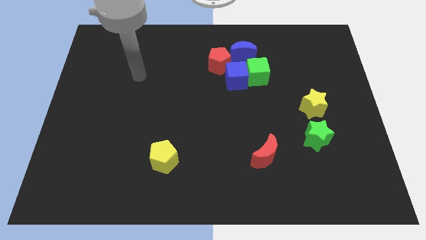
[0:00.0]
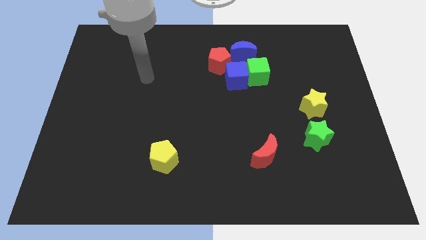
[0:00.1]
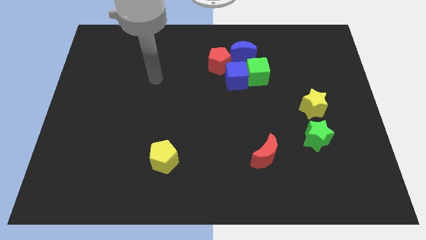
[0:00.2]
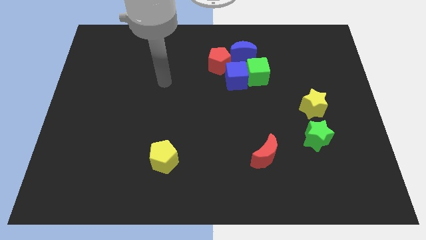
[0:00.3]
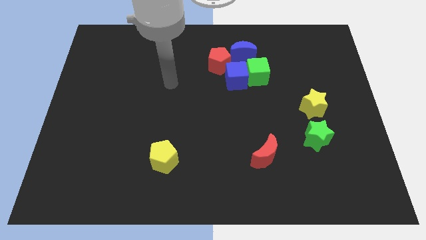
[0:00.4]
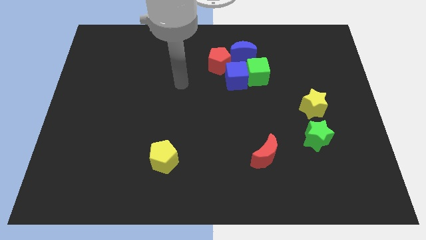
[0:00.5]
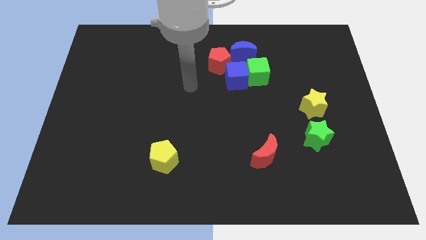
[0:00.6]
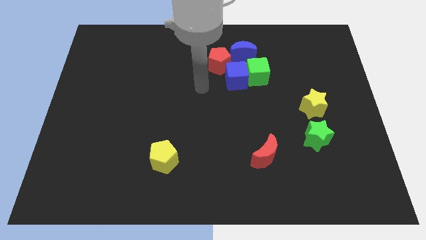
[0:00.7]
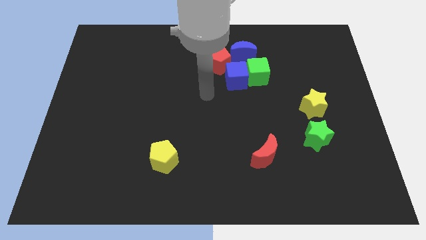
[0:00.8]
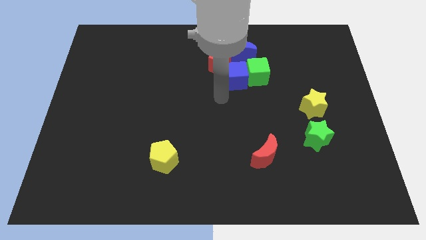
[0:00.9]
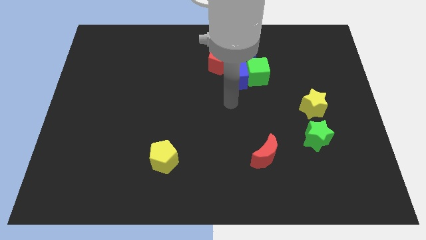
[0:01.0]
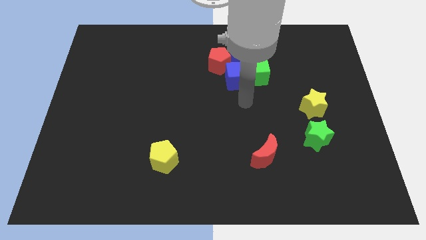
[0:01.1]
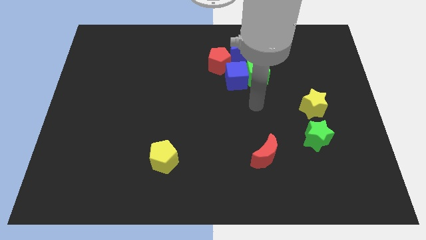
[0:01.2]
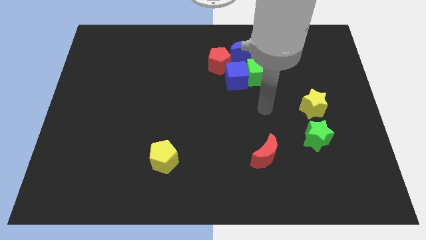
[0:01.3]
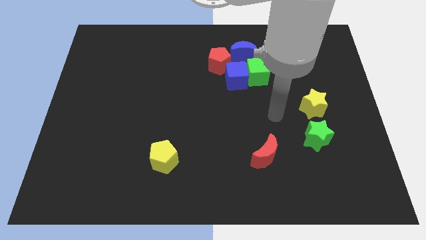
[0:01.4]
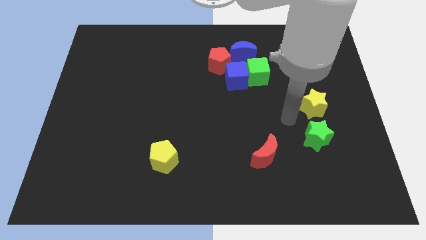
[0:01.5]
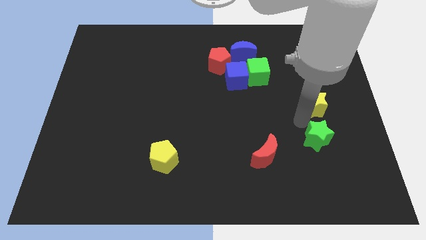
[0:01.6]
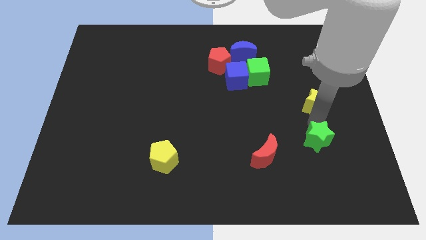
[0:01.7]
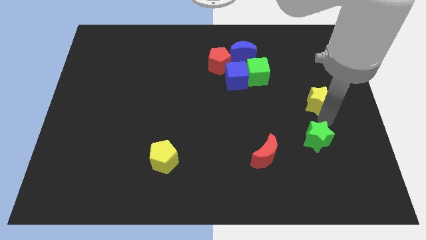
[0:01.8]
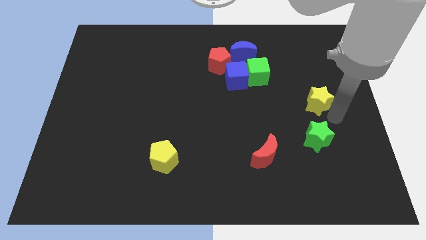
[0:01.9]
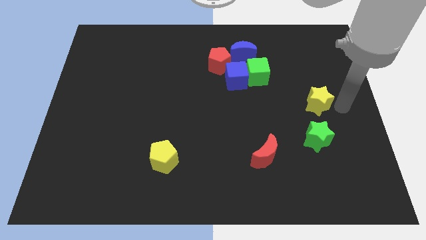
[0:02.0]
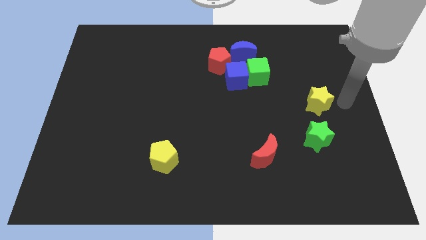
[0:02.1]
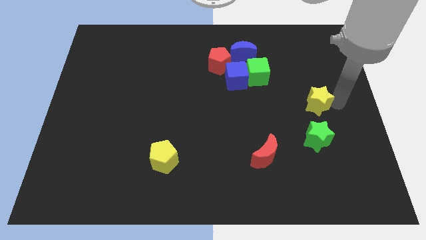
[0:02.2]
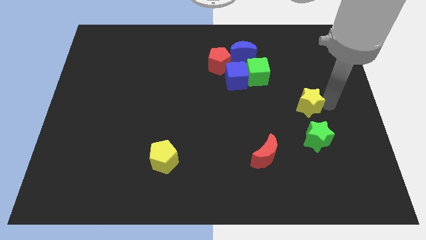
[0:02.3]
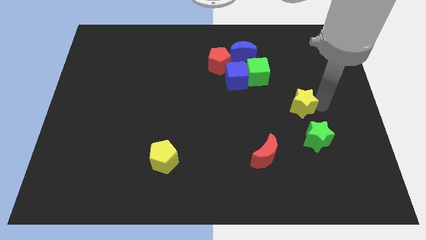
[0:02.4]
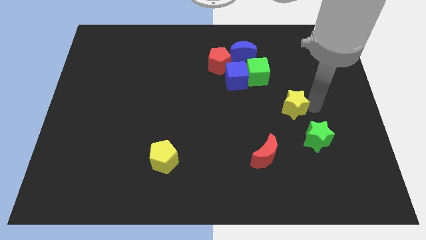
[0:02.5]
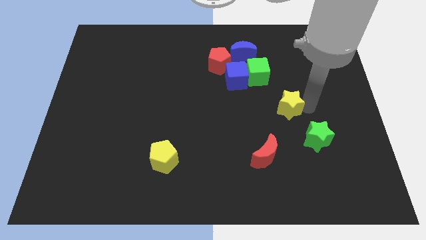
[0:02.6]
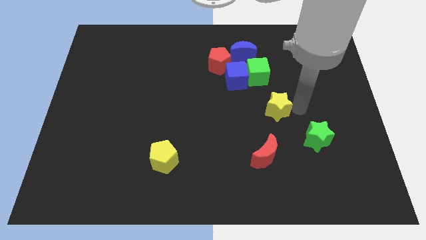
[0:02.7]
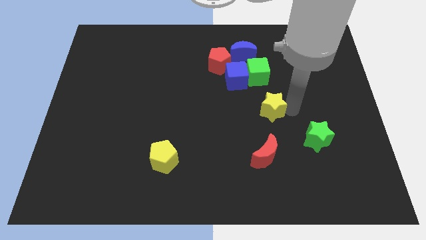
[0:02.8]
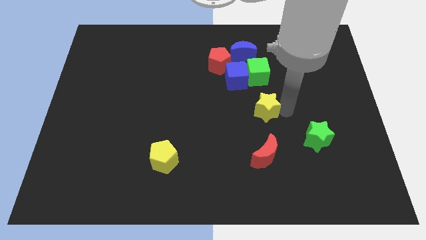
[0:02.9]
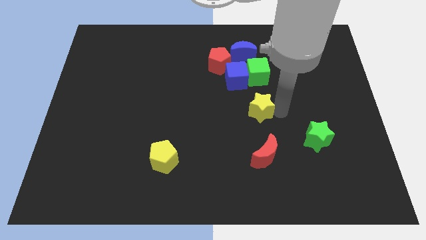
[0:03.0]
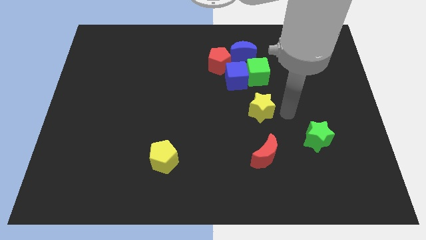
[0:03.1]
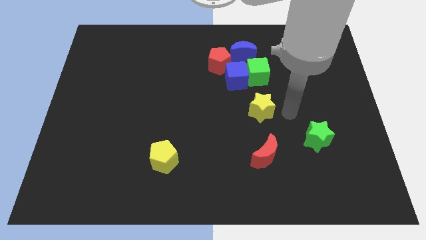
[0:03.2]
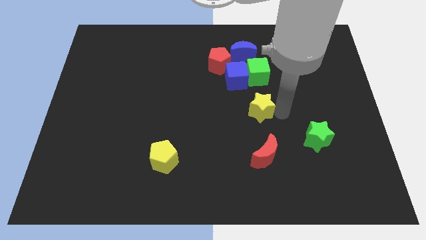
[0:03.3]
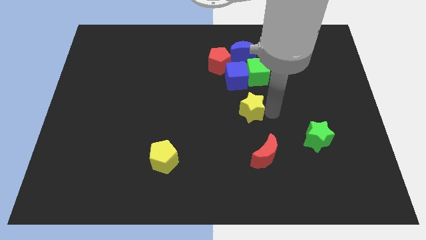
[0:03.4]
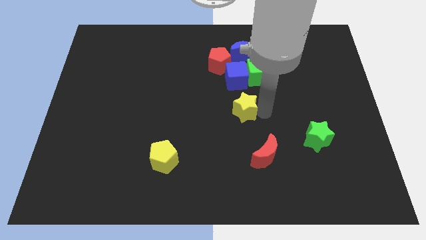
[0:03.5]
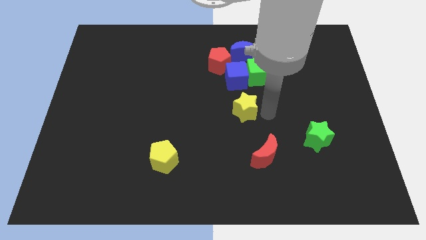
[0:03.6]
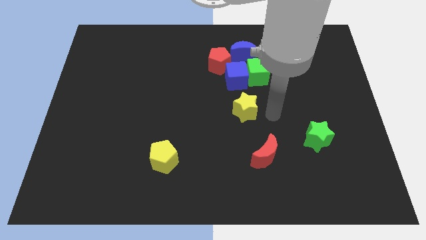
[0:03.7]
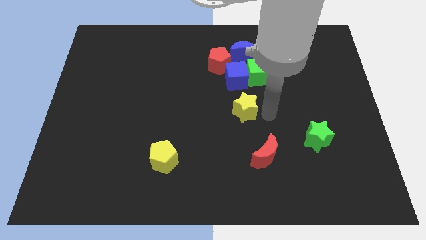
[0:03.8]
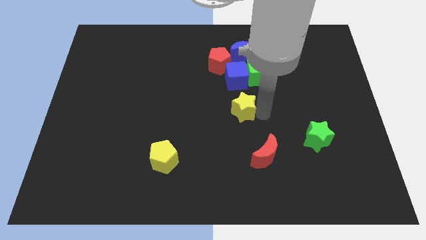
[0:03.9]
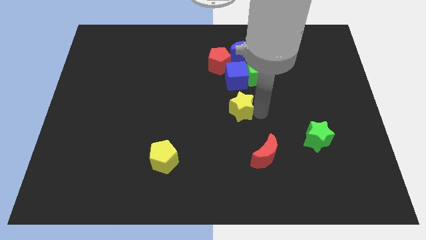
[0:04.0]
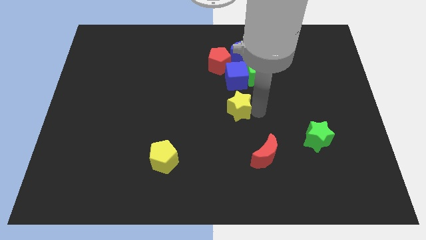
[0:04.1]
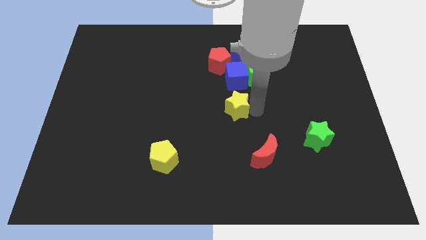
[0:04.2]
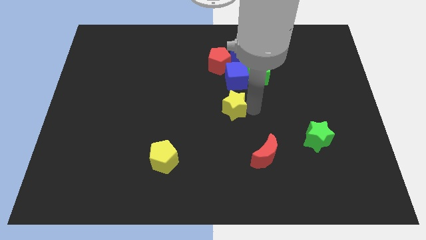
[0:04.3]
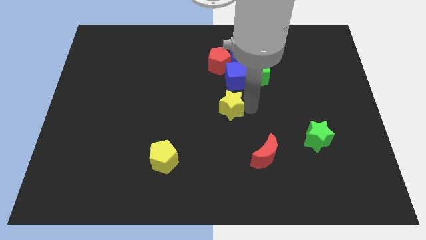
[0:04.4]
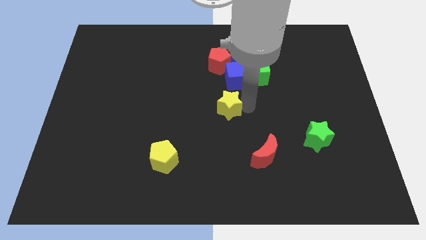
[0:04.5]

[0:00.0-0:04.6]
push the yellow star to the left

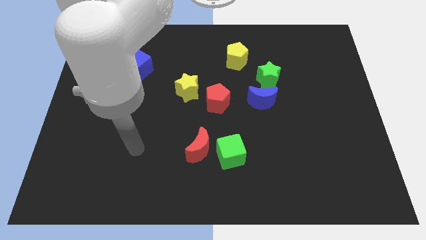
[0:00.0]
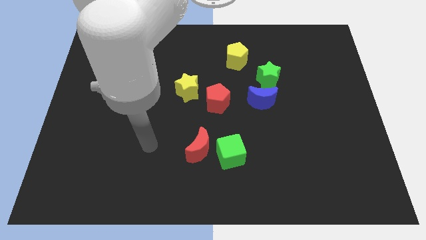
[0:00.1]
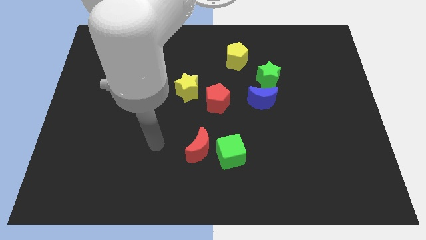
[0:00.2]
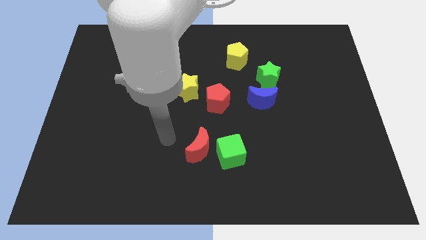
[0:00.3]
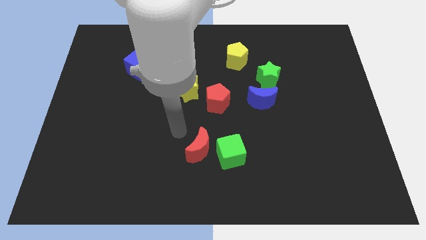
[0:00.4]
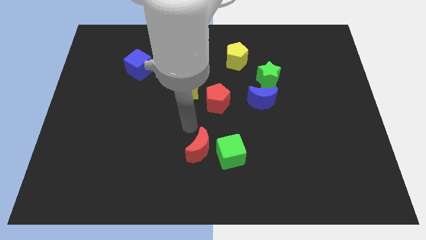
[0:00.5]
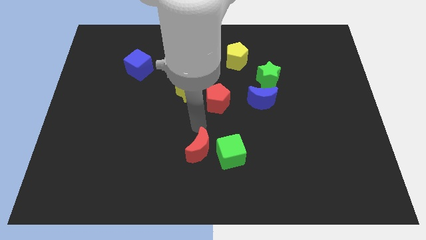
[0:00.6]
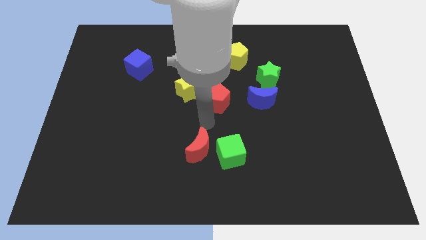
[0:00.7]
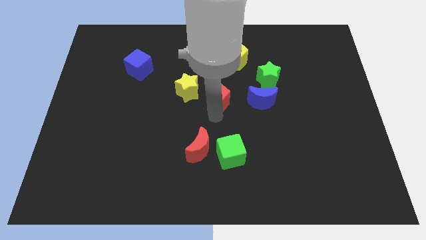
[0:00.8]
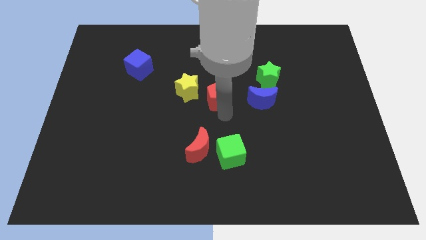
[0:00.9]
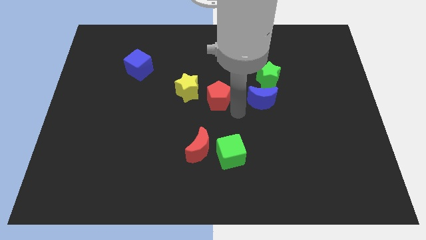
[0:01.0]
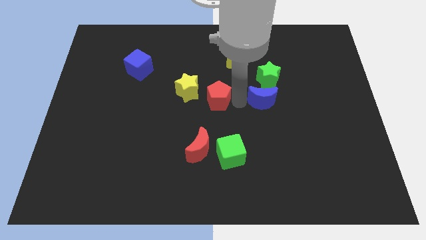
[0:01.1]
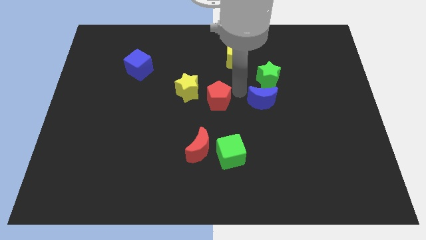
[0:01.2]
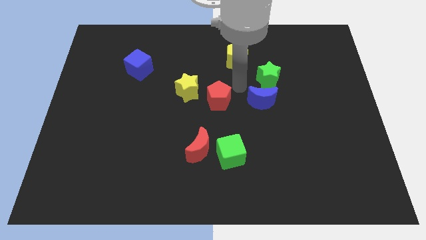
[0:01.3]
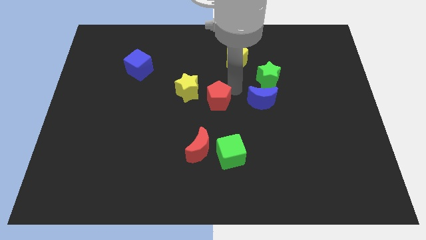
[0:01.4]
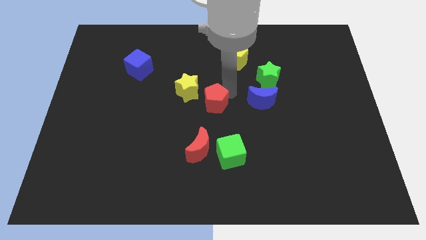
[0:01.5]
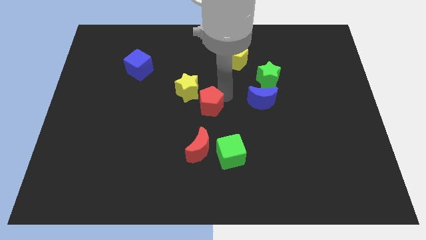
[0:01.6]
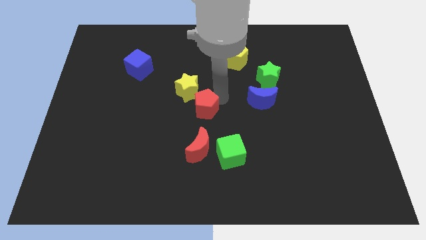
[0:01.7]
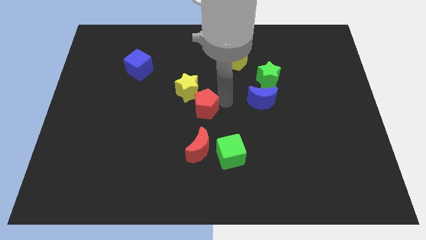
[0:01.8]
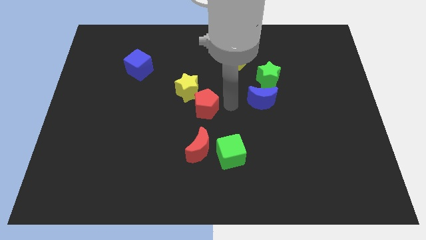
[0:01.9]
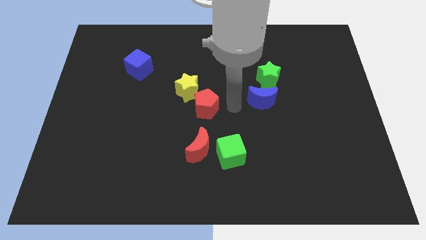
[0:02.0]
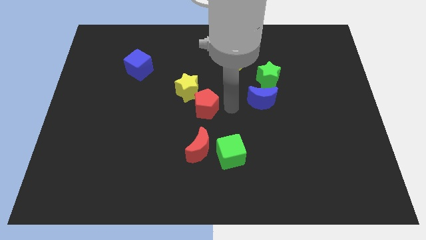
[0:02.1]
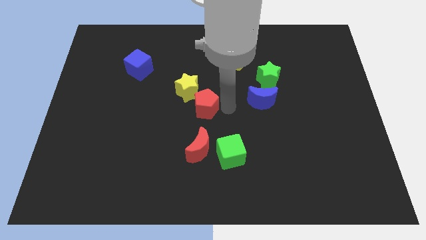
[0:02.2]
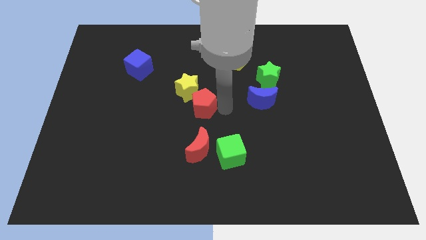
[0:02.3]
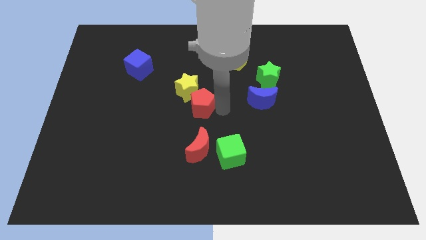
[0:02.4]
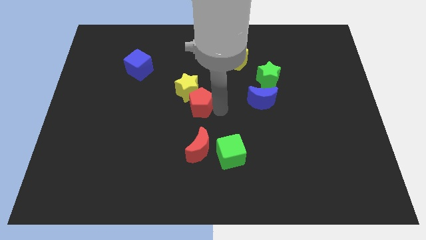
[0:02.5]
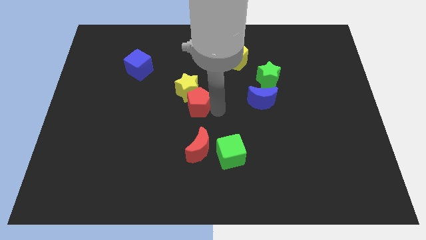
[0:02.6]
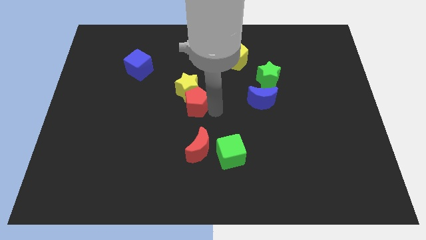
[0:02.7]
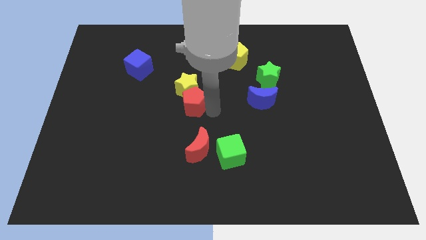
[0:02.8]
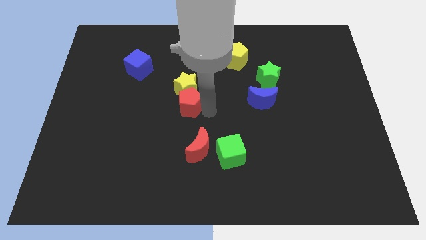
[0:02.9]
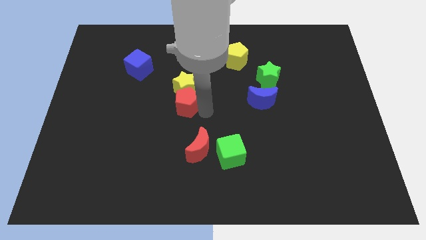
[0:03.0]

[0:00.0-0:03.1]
slide the red pentagon left slightly

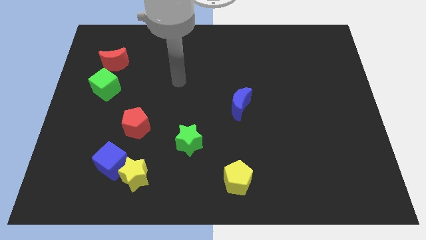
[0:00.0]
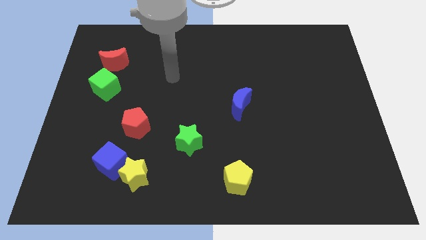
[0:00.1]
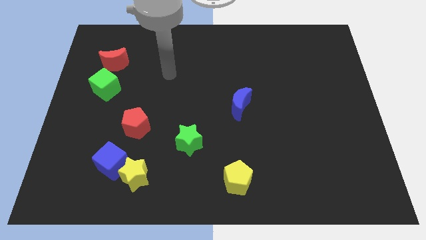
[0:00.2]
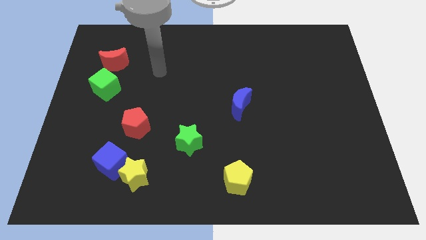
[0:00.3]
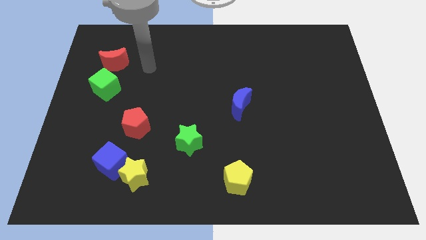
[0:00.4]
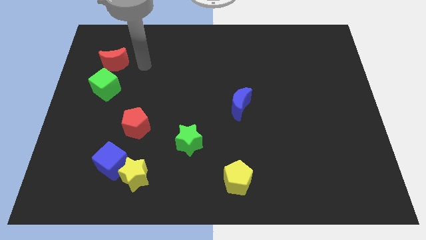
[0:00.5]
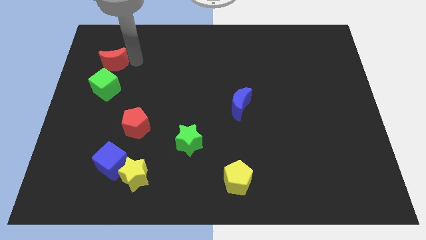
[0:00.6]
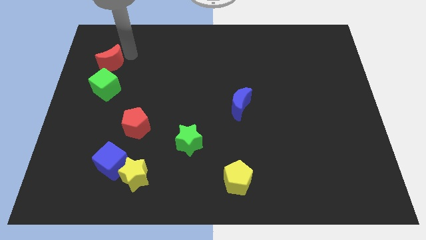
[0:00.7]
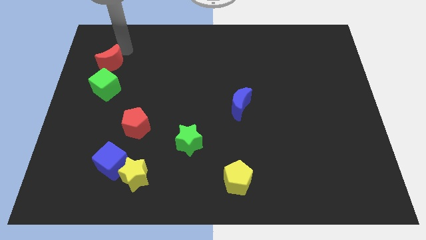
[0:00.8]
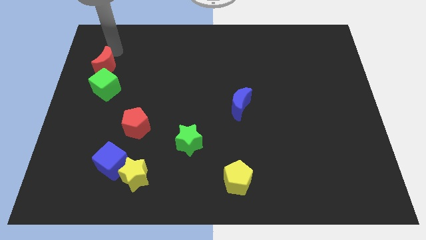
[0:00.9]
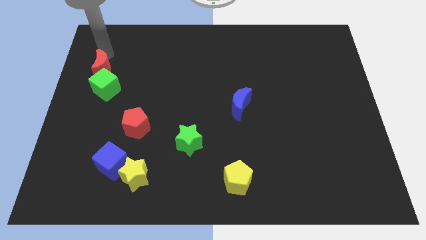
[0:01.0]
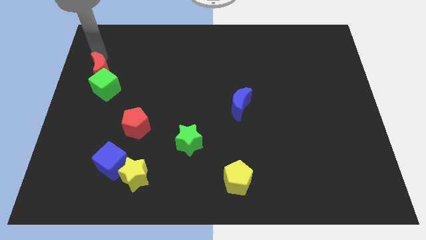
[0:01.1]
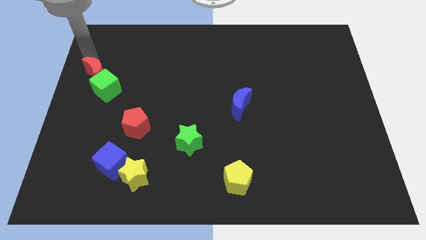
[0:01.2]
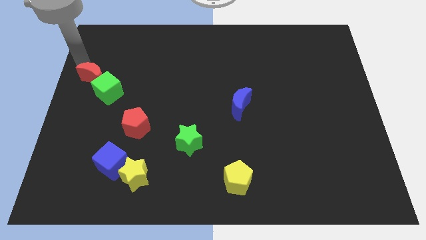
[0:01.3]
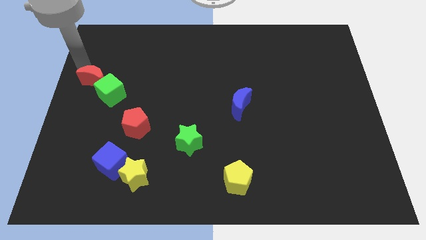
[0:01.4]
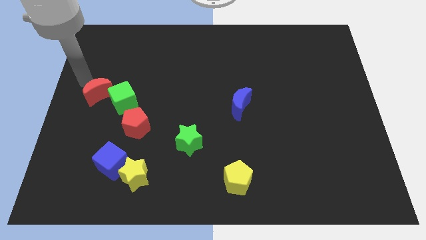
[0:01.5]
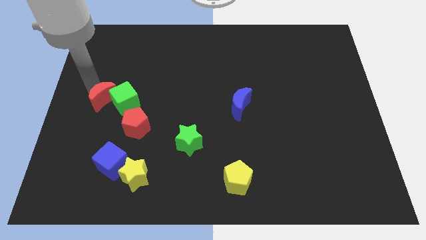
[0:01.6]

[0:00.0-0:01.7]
push the green cube a bit down and to the right
